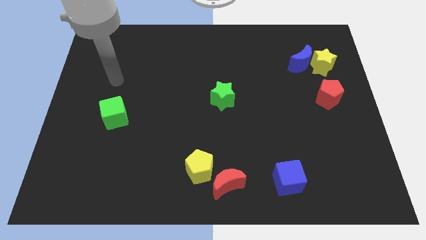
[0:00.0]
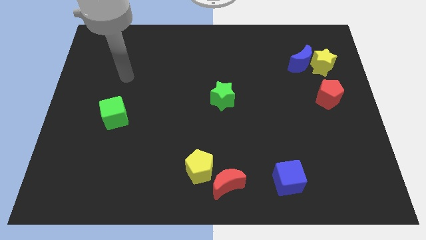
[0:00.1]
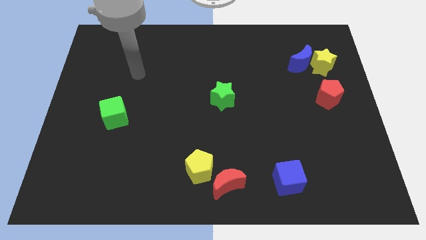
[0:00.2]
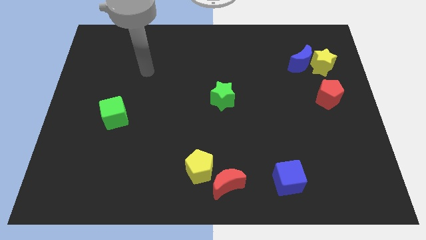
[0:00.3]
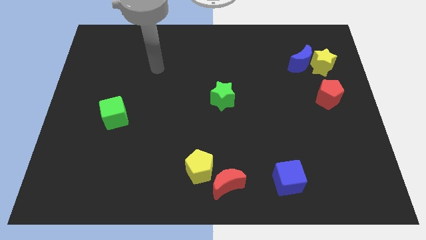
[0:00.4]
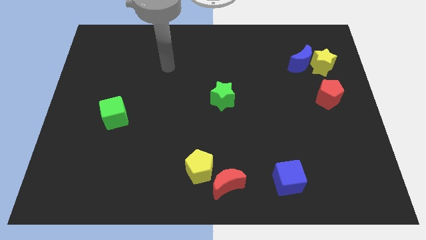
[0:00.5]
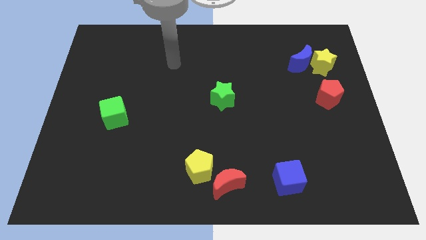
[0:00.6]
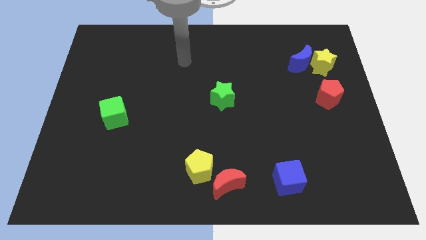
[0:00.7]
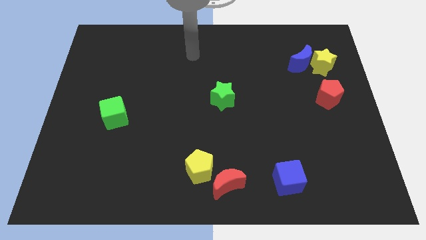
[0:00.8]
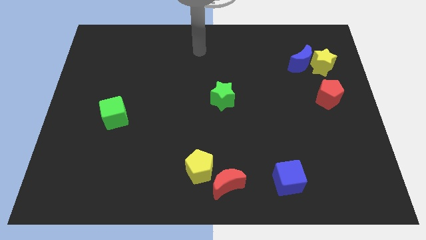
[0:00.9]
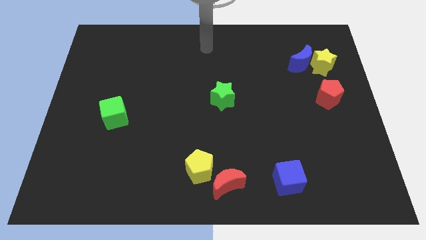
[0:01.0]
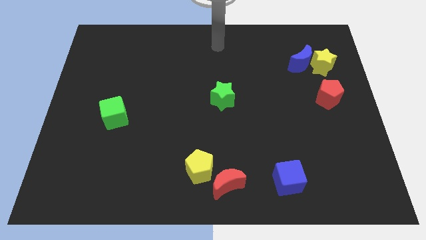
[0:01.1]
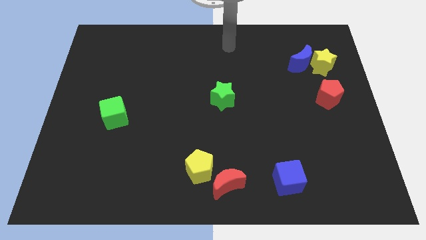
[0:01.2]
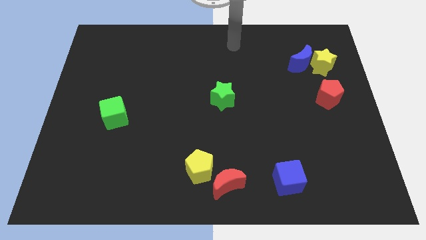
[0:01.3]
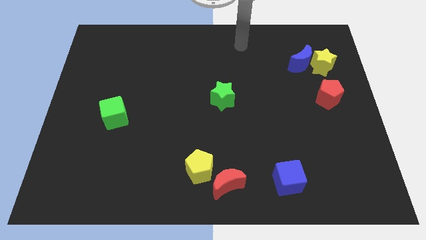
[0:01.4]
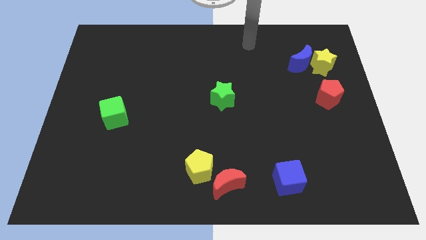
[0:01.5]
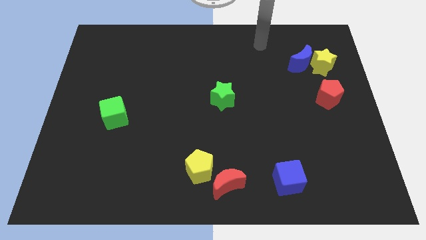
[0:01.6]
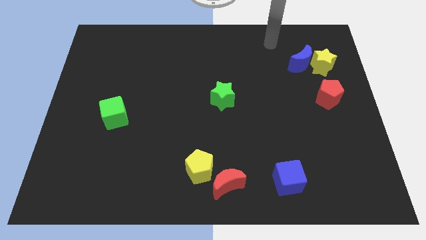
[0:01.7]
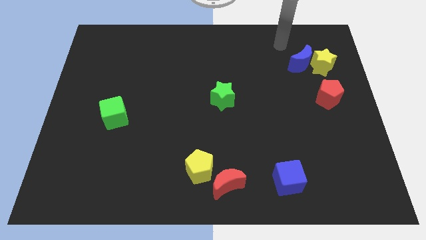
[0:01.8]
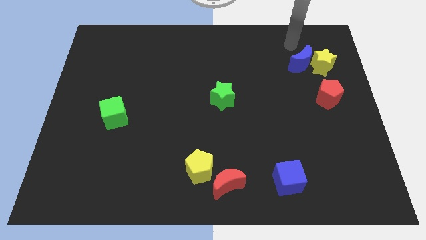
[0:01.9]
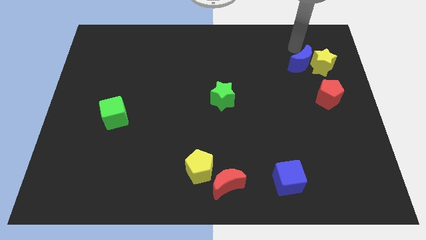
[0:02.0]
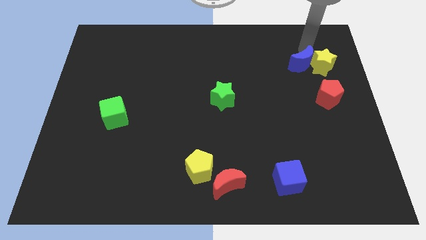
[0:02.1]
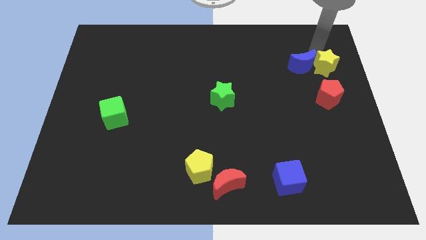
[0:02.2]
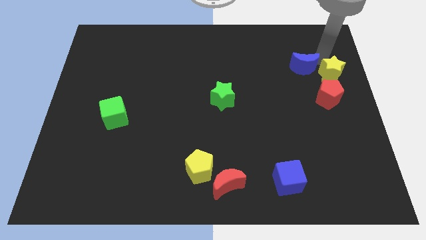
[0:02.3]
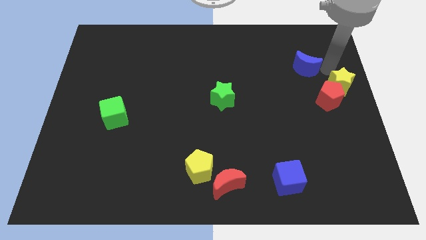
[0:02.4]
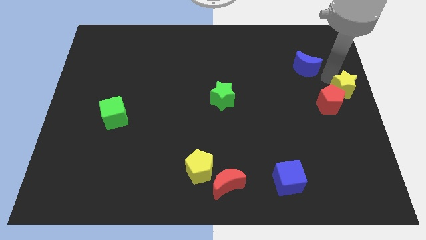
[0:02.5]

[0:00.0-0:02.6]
move the blue moon away from the yellow star

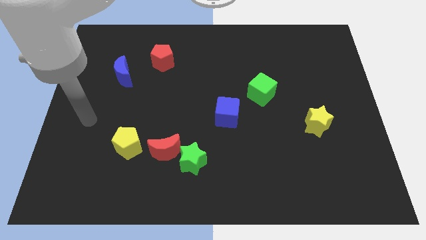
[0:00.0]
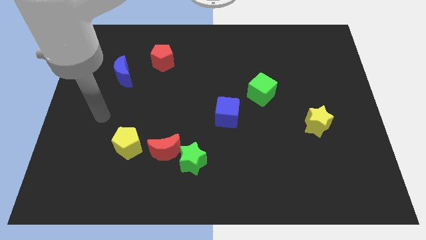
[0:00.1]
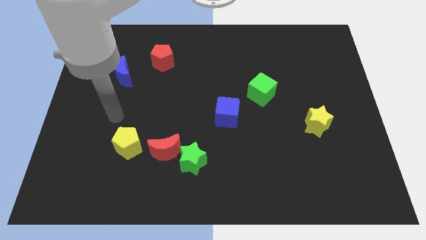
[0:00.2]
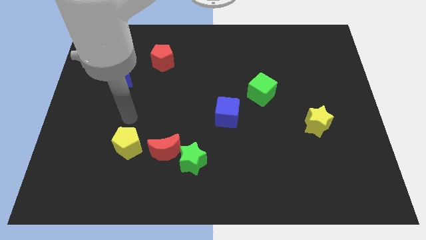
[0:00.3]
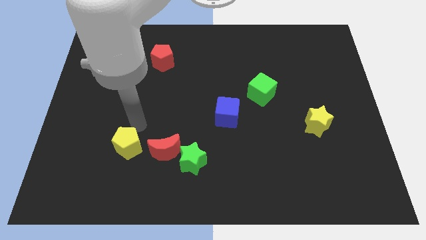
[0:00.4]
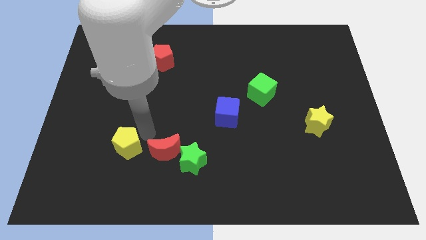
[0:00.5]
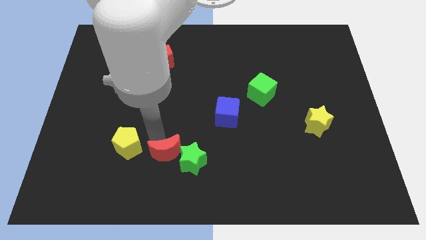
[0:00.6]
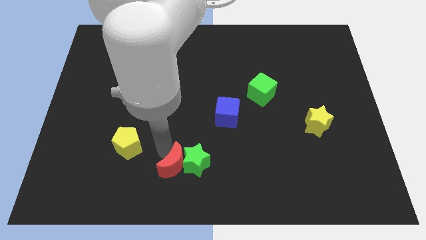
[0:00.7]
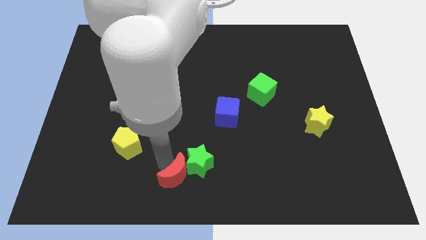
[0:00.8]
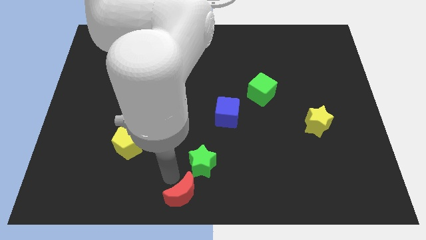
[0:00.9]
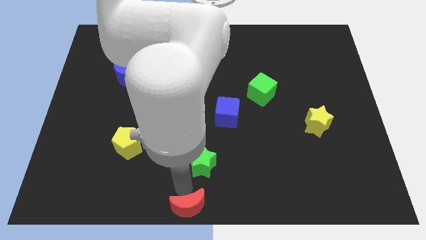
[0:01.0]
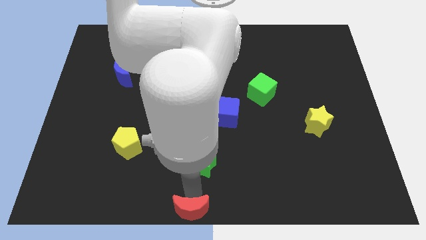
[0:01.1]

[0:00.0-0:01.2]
move the green star away from the red moon

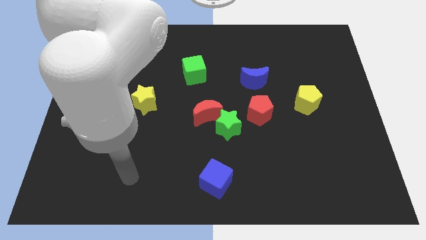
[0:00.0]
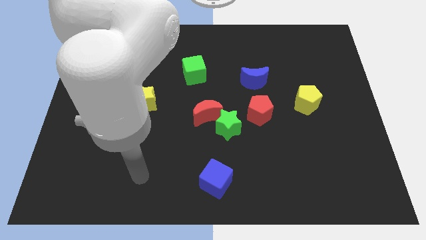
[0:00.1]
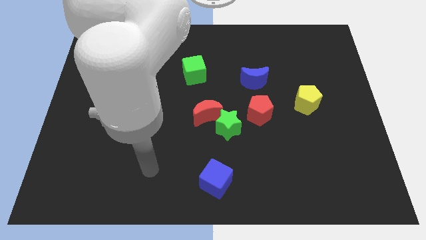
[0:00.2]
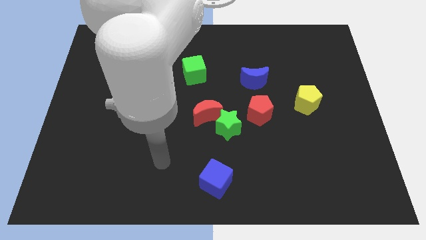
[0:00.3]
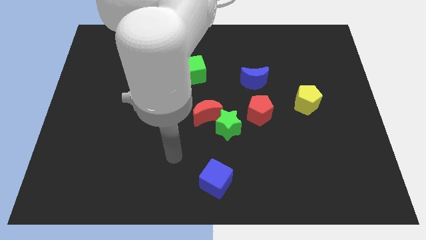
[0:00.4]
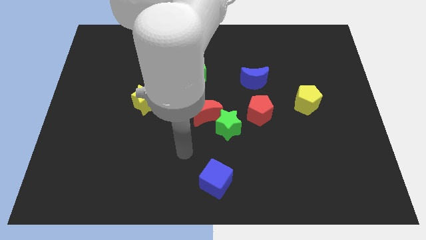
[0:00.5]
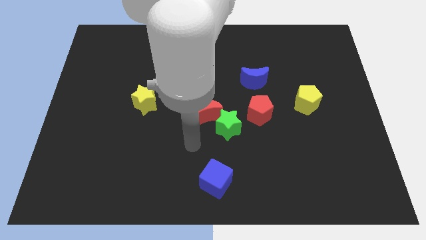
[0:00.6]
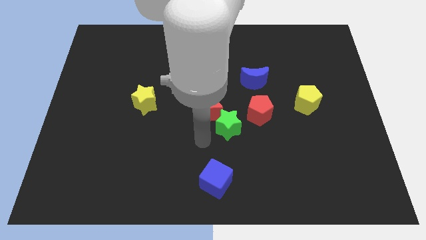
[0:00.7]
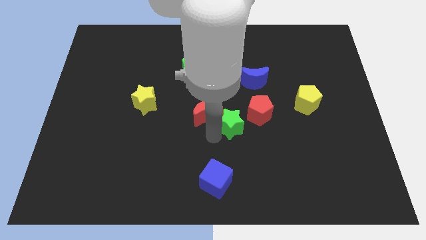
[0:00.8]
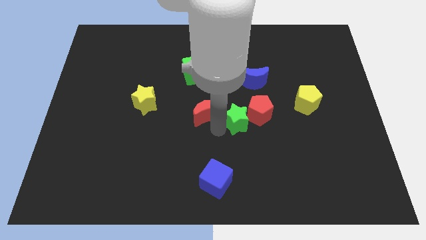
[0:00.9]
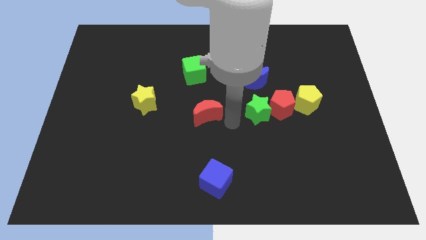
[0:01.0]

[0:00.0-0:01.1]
separate the red moon from the green star

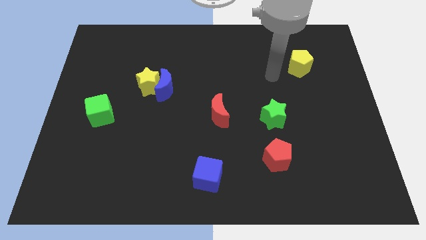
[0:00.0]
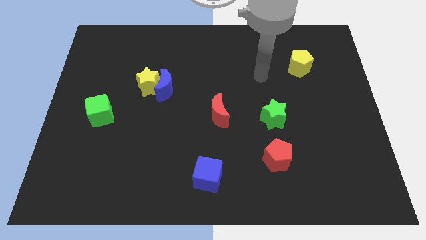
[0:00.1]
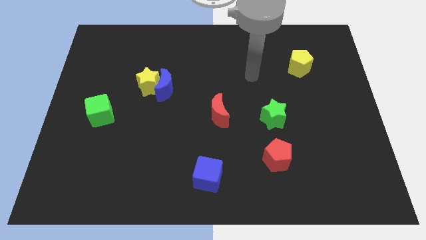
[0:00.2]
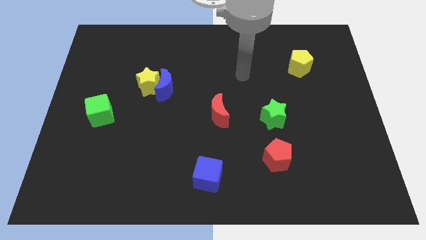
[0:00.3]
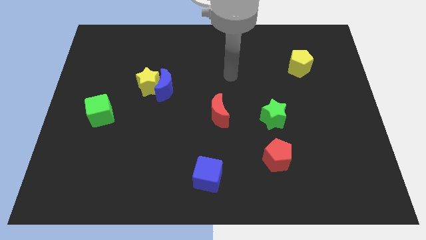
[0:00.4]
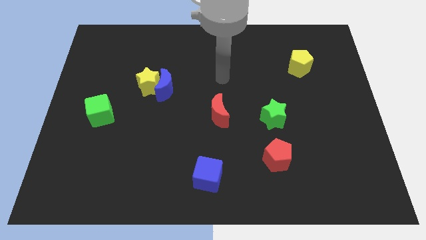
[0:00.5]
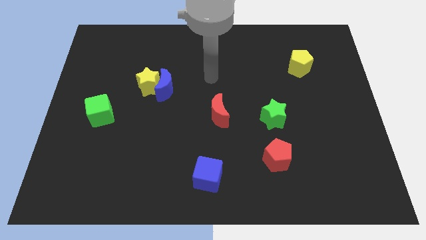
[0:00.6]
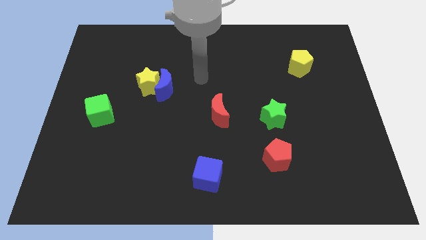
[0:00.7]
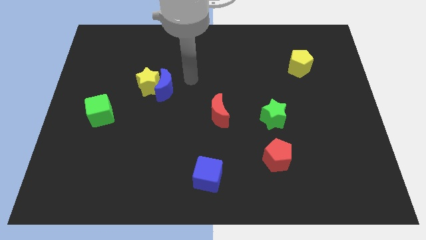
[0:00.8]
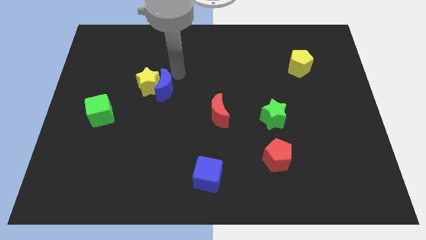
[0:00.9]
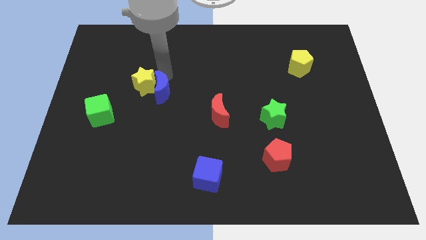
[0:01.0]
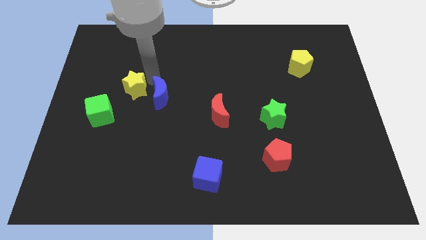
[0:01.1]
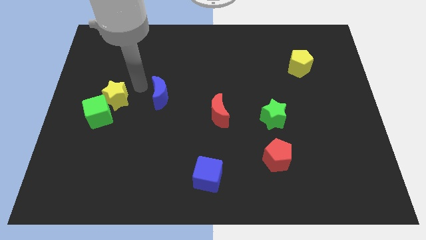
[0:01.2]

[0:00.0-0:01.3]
separate the blue moon from the yellow star

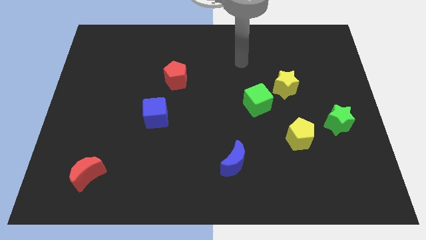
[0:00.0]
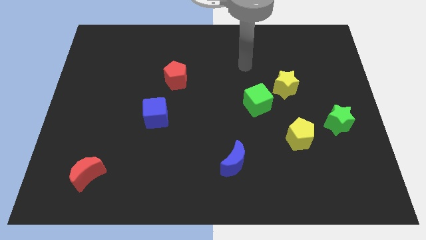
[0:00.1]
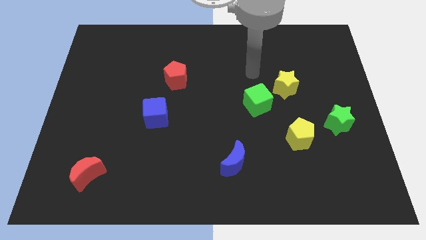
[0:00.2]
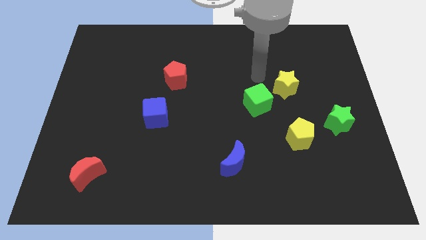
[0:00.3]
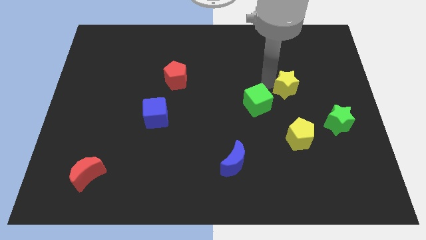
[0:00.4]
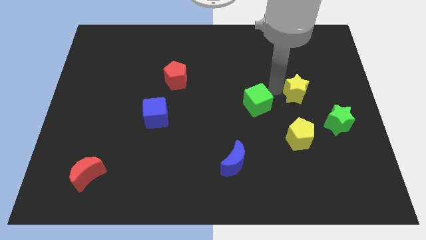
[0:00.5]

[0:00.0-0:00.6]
pull the green cube apart from the yellow star

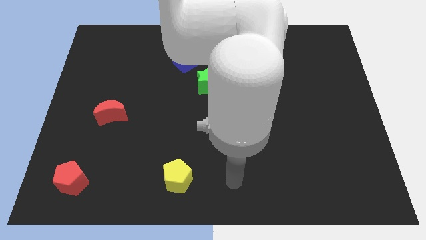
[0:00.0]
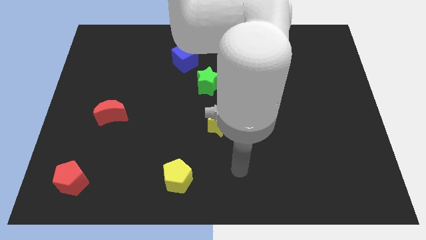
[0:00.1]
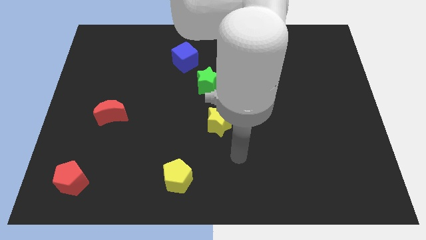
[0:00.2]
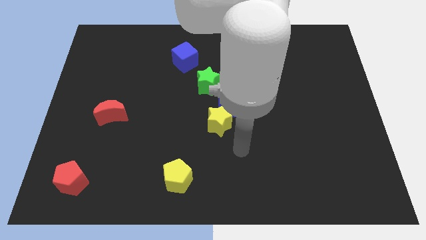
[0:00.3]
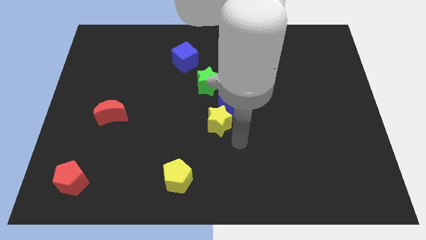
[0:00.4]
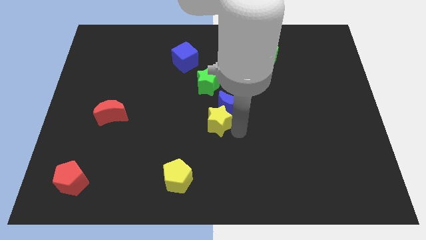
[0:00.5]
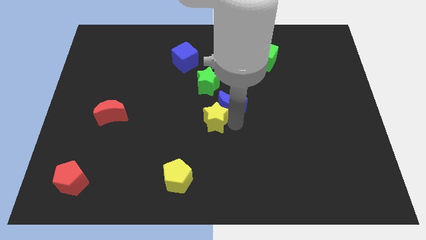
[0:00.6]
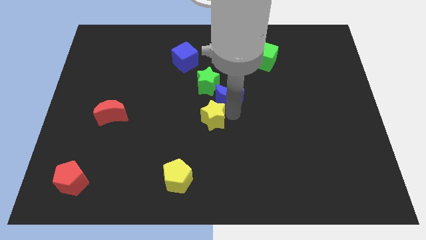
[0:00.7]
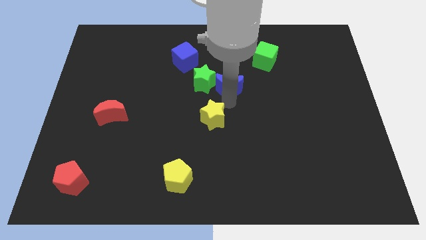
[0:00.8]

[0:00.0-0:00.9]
separate the yellow star from the blue moon

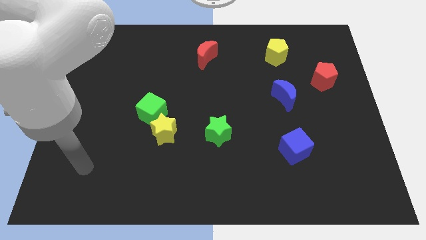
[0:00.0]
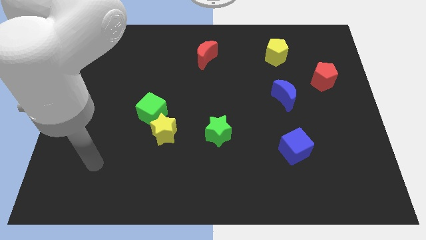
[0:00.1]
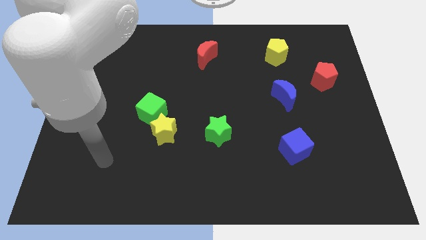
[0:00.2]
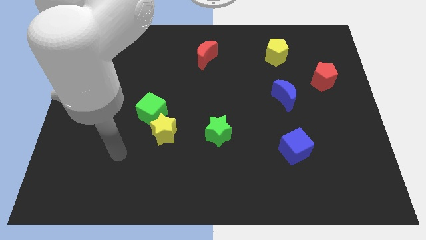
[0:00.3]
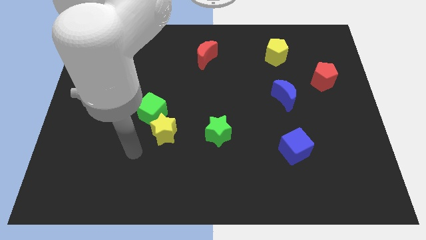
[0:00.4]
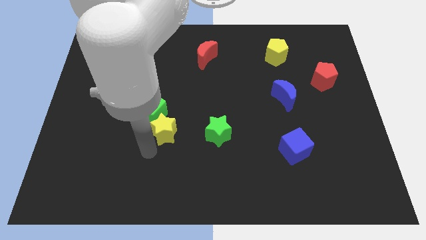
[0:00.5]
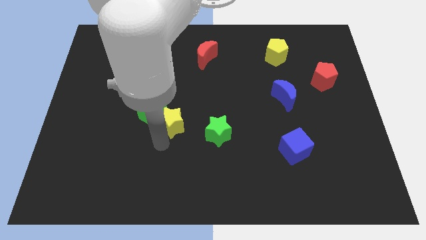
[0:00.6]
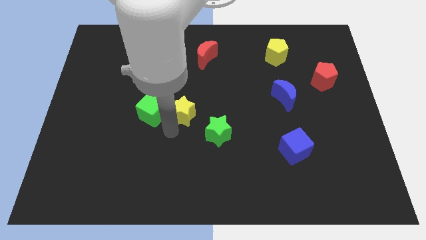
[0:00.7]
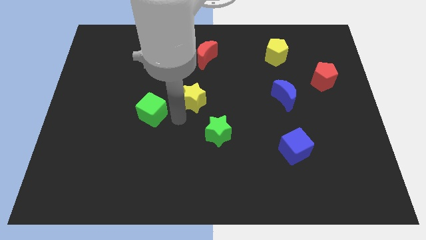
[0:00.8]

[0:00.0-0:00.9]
move the green cube away from the yellow star

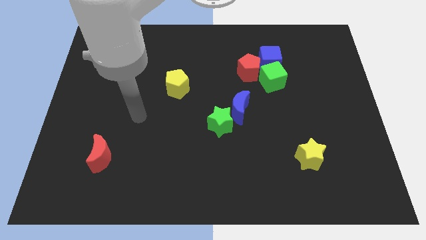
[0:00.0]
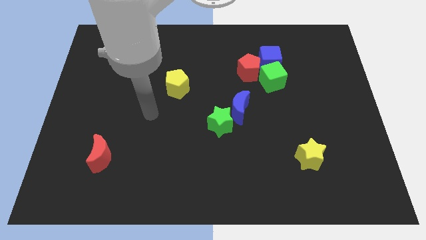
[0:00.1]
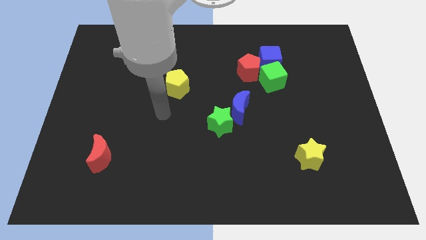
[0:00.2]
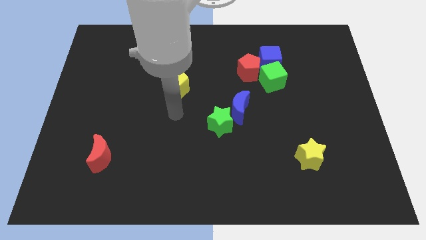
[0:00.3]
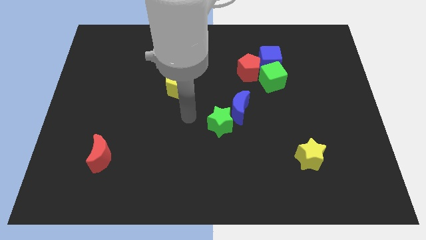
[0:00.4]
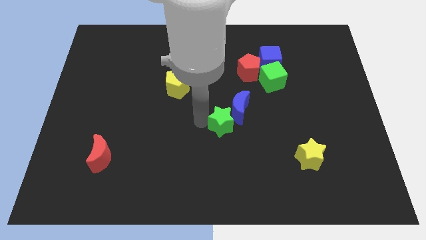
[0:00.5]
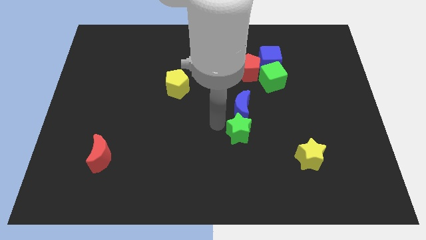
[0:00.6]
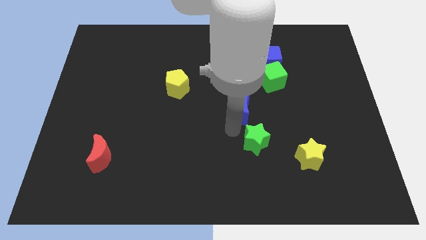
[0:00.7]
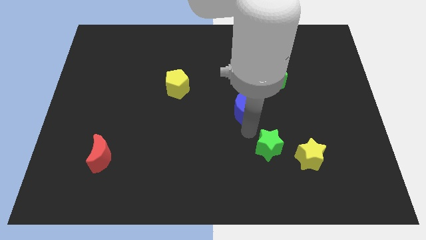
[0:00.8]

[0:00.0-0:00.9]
pull the blue moon apart from the green star
